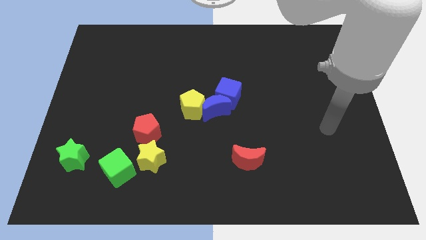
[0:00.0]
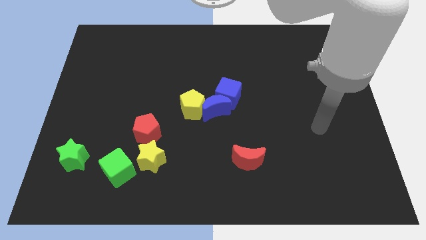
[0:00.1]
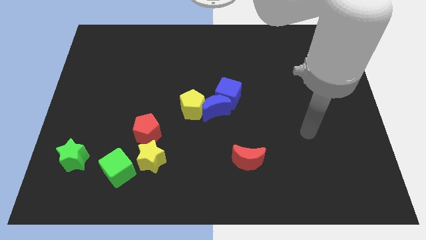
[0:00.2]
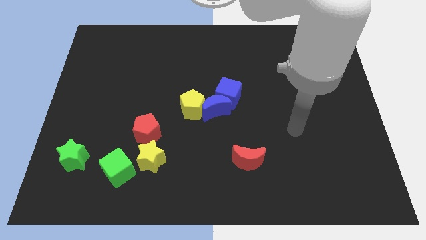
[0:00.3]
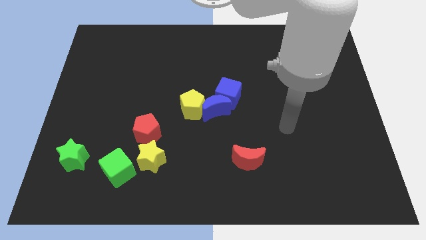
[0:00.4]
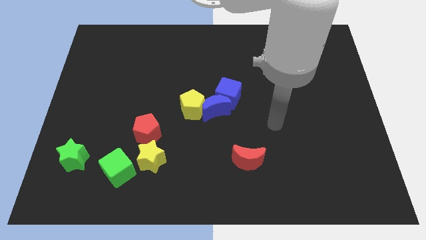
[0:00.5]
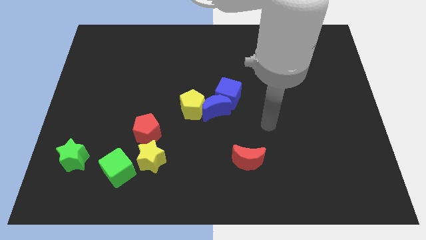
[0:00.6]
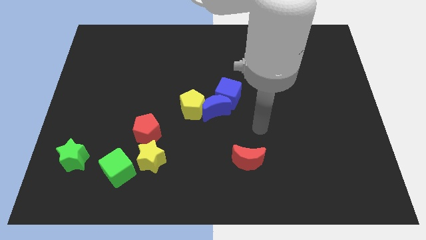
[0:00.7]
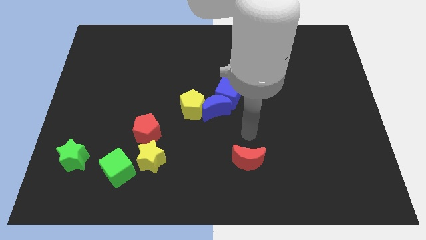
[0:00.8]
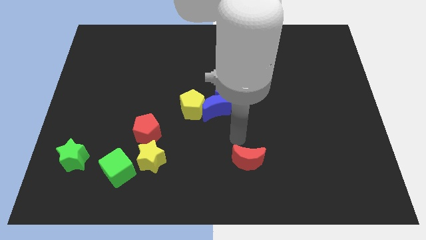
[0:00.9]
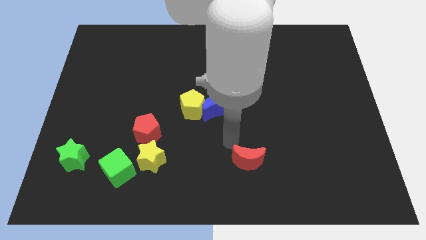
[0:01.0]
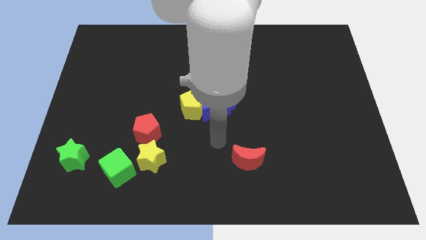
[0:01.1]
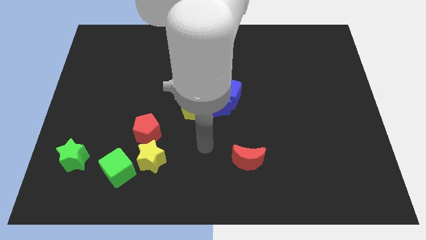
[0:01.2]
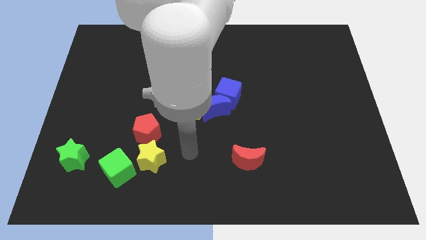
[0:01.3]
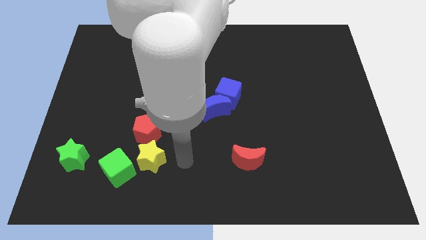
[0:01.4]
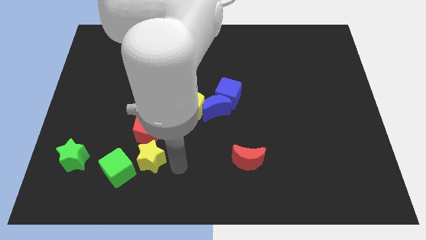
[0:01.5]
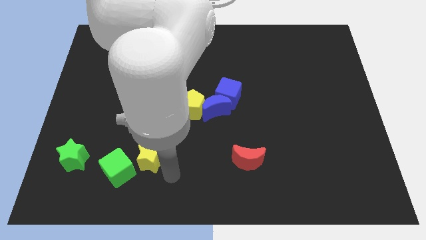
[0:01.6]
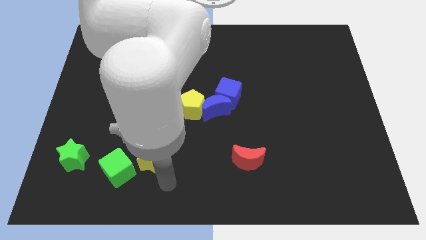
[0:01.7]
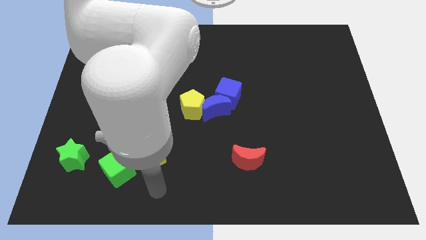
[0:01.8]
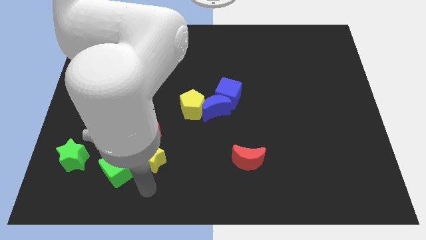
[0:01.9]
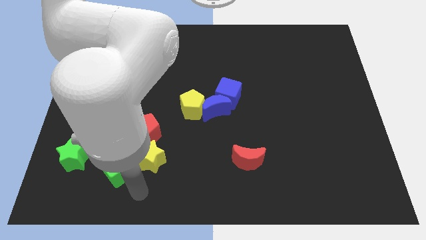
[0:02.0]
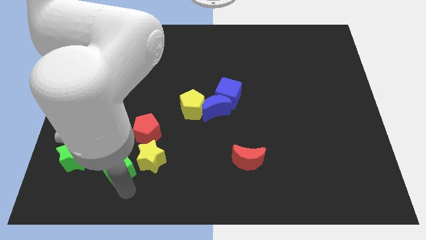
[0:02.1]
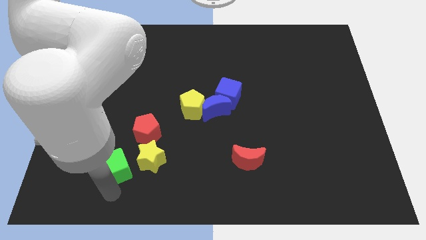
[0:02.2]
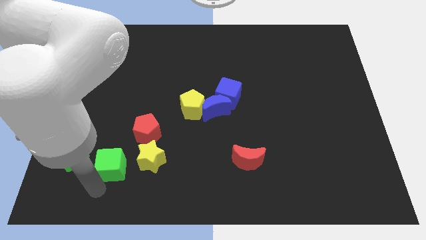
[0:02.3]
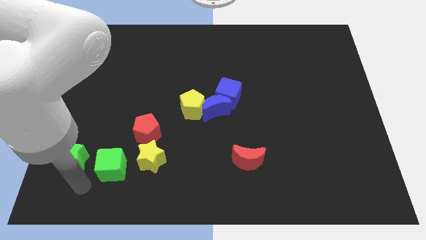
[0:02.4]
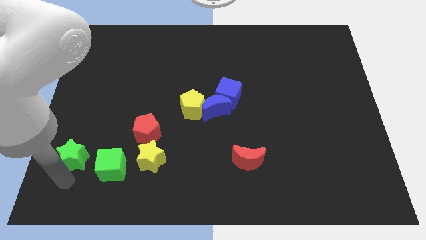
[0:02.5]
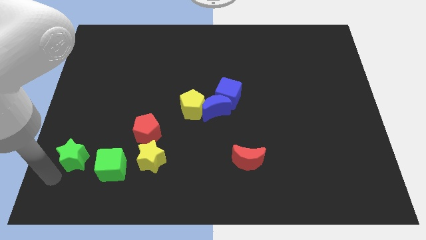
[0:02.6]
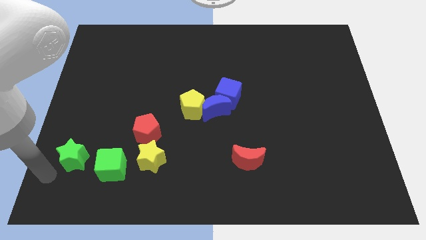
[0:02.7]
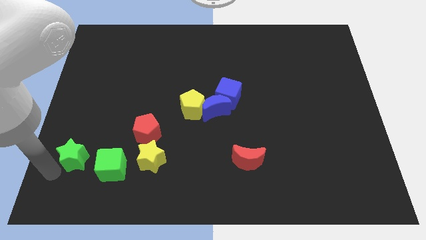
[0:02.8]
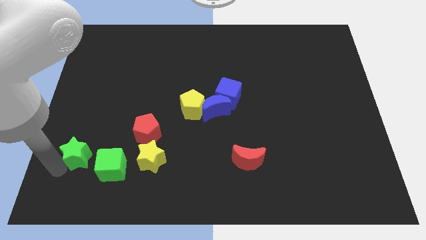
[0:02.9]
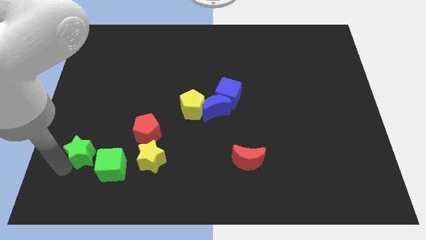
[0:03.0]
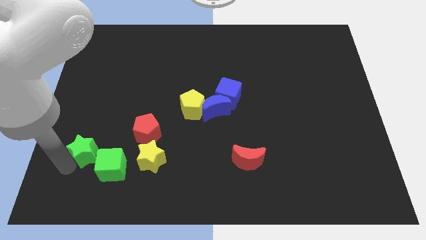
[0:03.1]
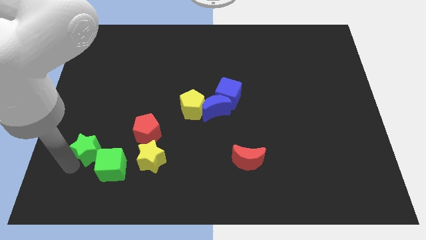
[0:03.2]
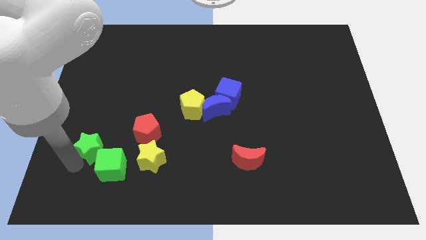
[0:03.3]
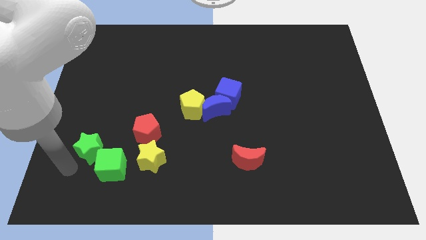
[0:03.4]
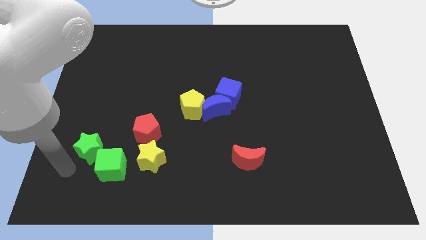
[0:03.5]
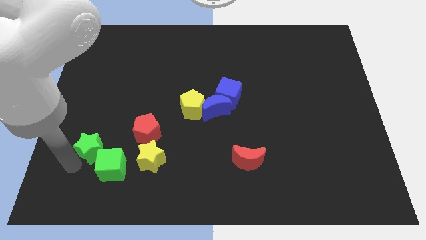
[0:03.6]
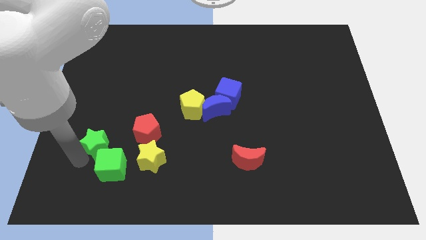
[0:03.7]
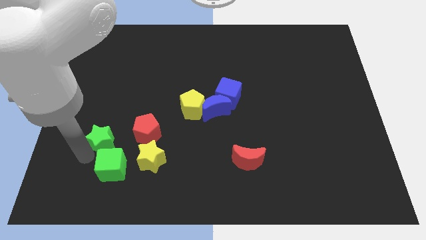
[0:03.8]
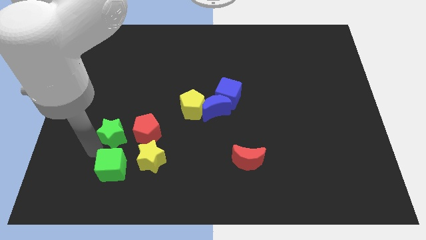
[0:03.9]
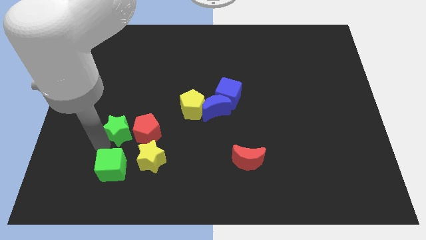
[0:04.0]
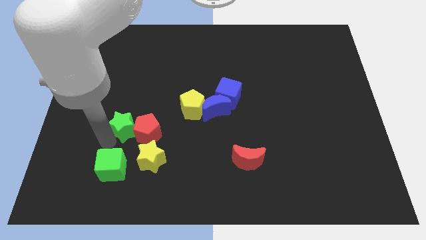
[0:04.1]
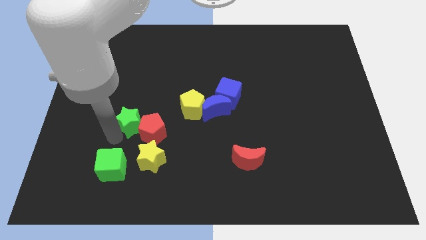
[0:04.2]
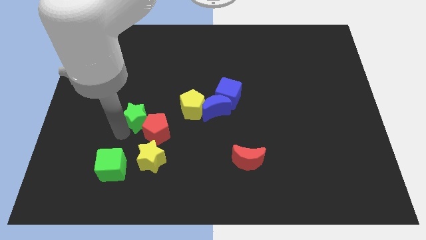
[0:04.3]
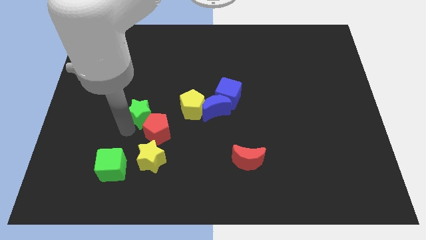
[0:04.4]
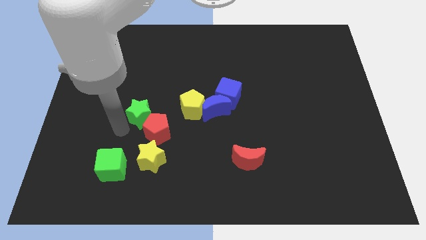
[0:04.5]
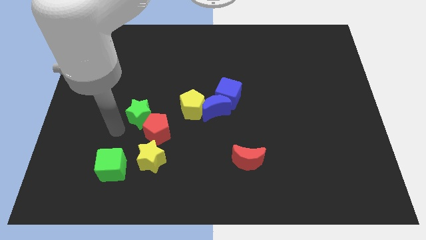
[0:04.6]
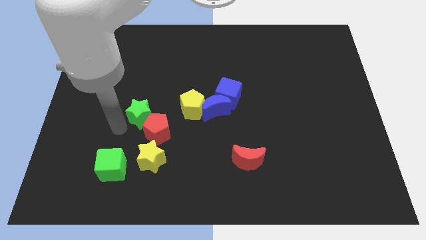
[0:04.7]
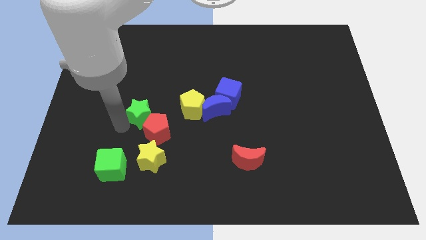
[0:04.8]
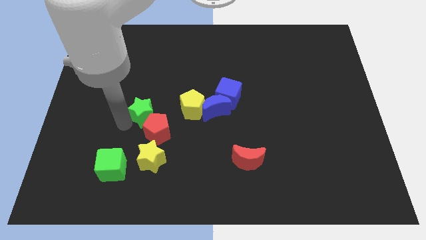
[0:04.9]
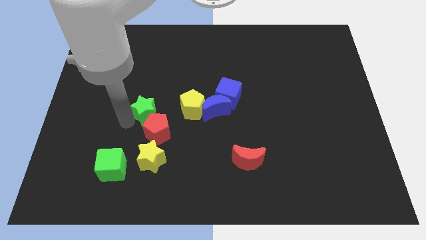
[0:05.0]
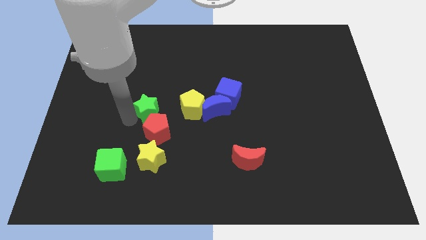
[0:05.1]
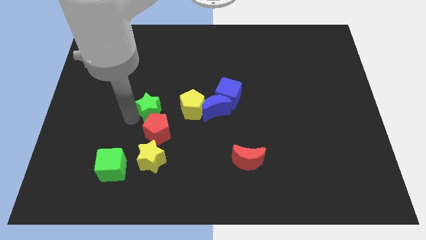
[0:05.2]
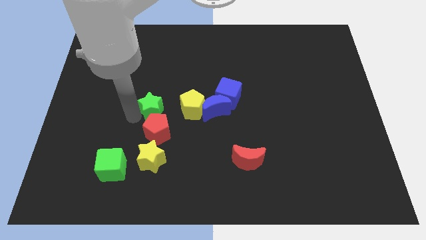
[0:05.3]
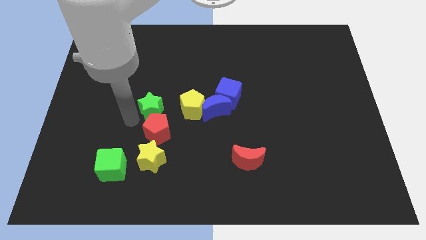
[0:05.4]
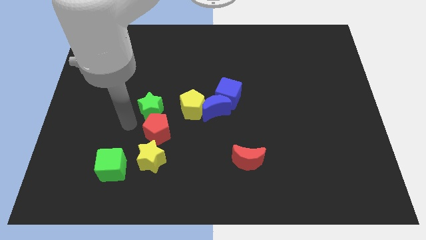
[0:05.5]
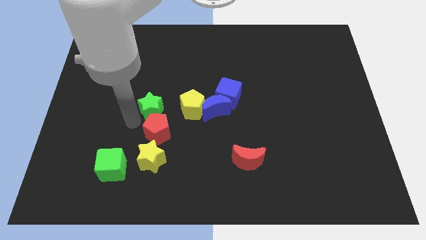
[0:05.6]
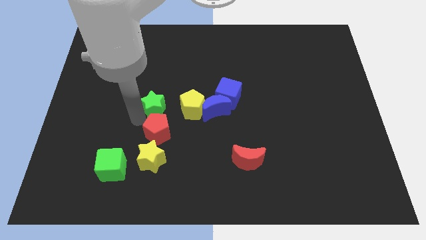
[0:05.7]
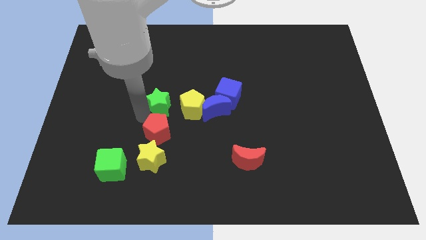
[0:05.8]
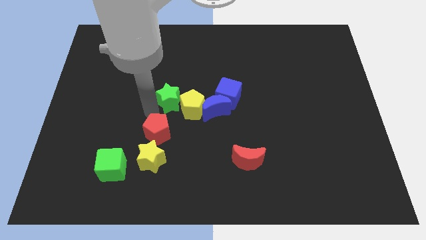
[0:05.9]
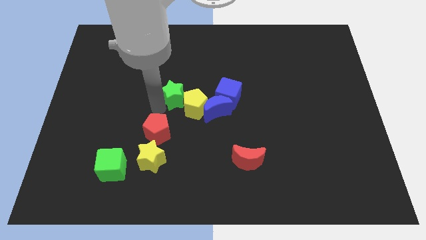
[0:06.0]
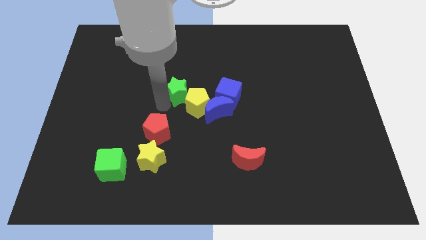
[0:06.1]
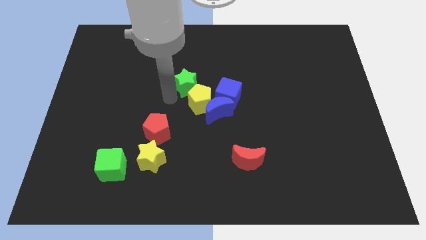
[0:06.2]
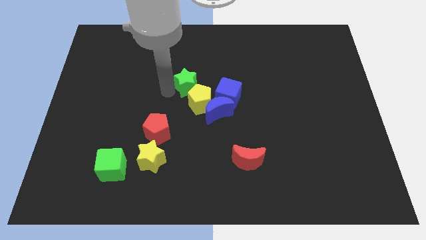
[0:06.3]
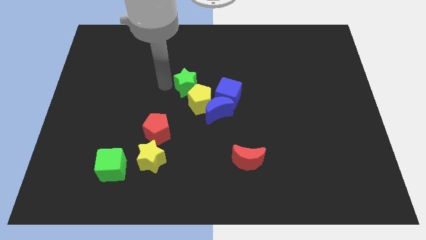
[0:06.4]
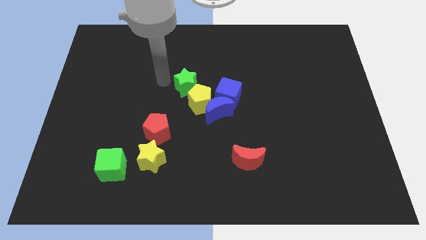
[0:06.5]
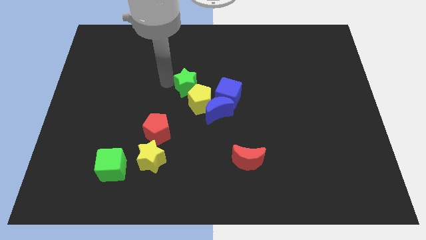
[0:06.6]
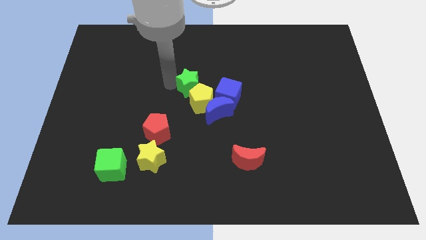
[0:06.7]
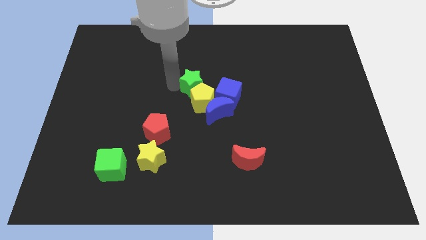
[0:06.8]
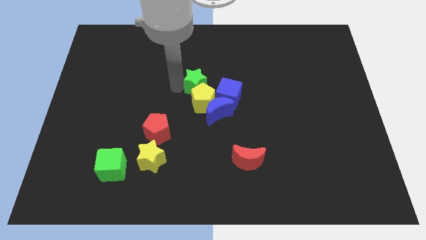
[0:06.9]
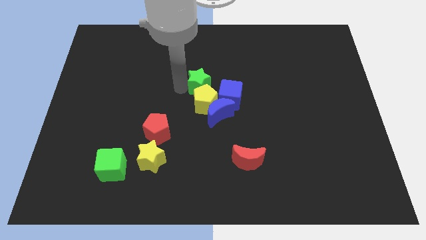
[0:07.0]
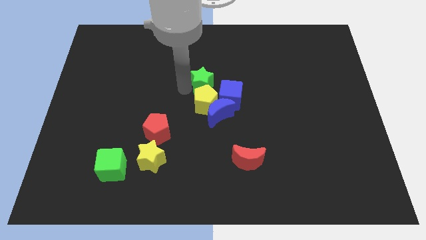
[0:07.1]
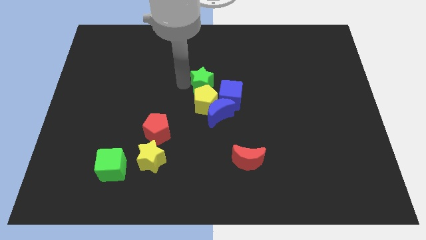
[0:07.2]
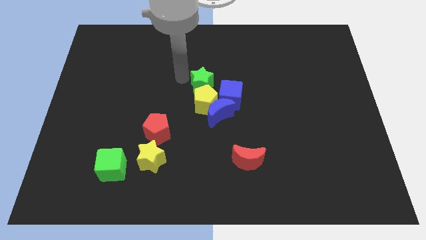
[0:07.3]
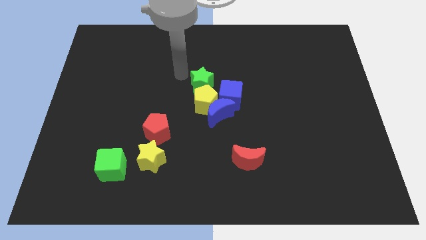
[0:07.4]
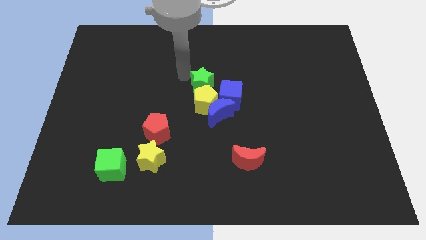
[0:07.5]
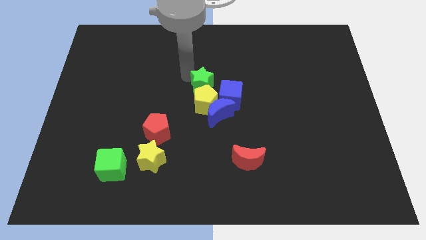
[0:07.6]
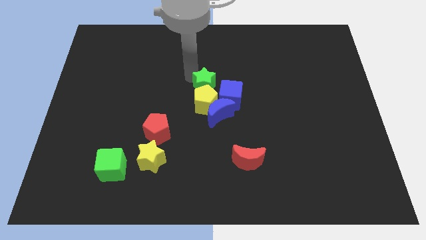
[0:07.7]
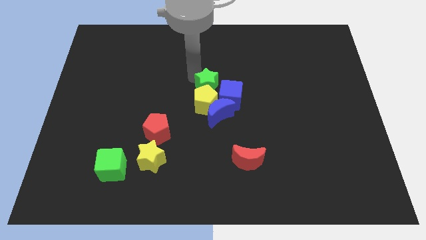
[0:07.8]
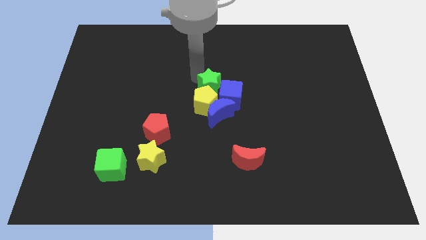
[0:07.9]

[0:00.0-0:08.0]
push the green star to the blue cube

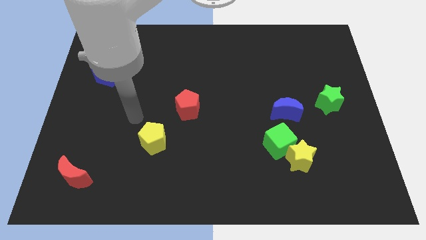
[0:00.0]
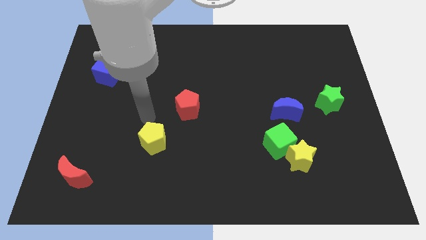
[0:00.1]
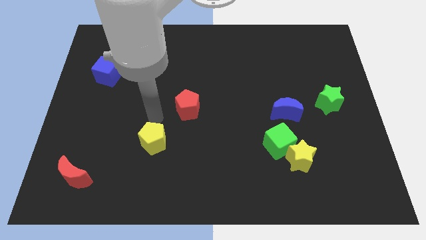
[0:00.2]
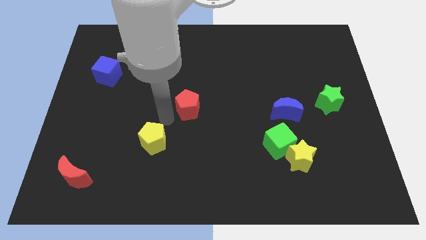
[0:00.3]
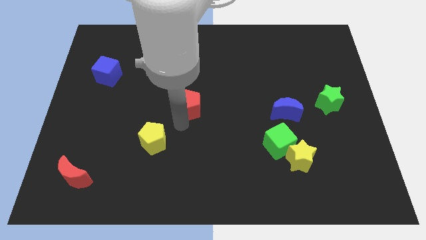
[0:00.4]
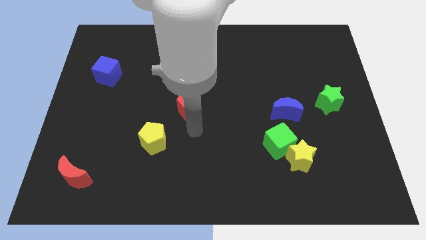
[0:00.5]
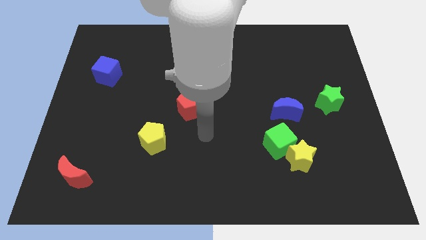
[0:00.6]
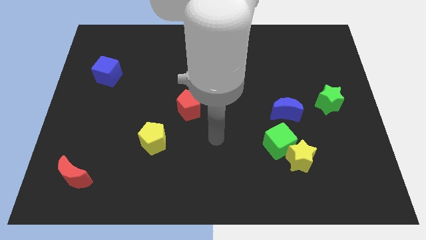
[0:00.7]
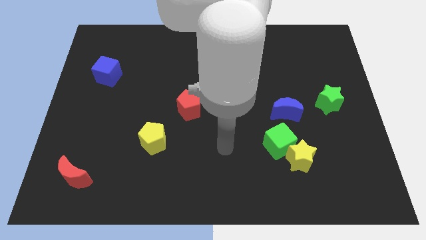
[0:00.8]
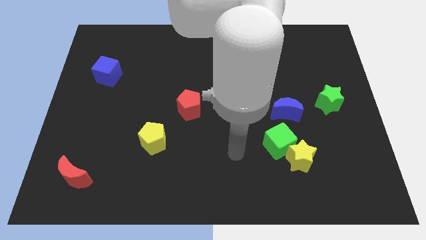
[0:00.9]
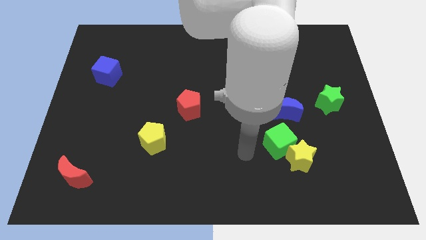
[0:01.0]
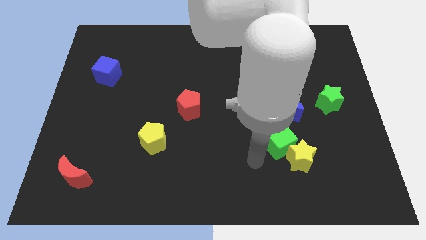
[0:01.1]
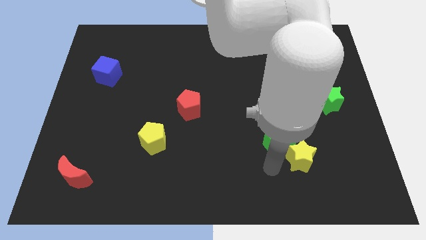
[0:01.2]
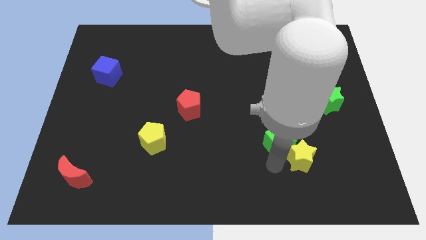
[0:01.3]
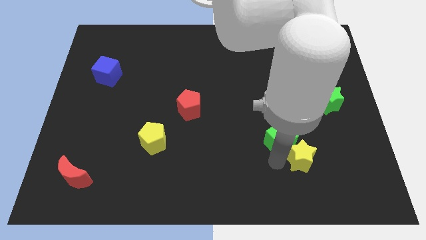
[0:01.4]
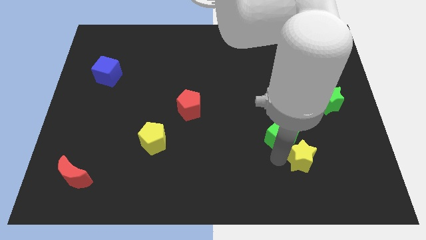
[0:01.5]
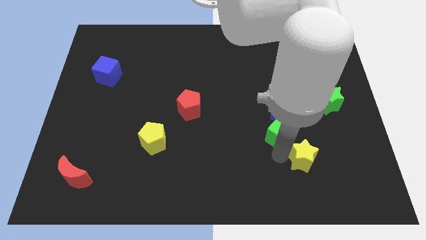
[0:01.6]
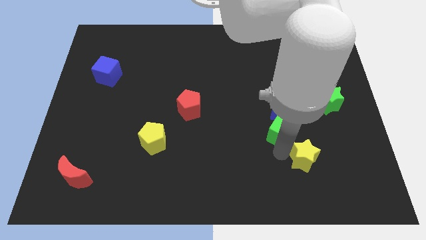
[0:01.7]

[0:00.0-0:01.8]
move the green cube next to the blue moon
